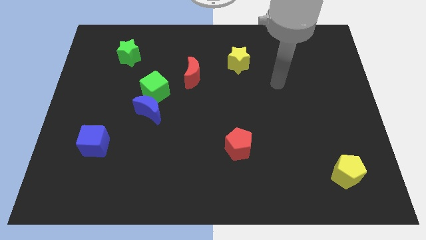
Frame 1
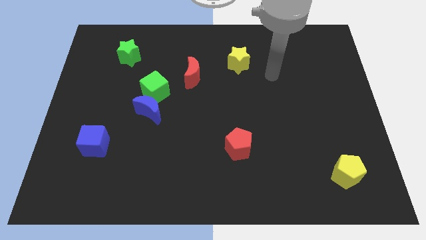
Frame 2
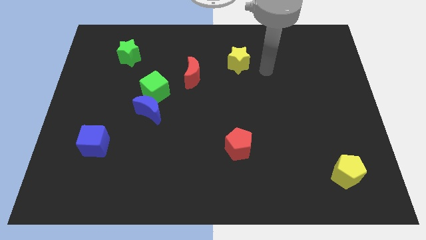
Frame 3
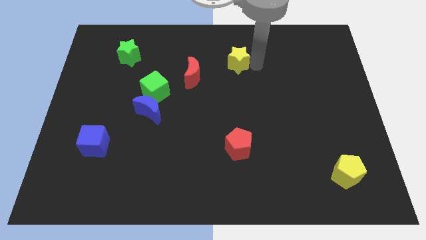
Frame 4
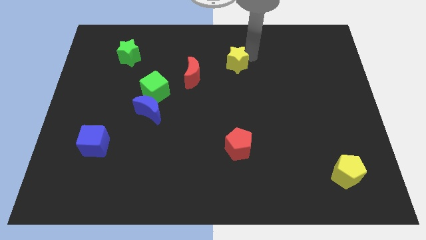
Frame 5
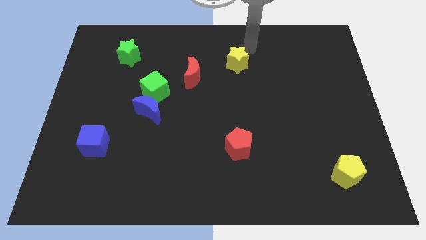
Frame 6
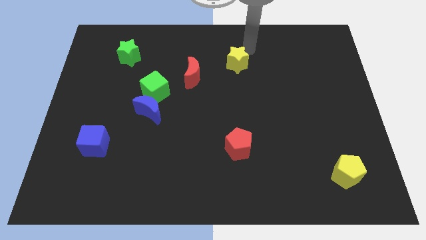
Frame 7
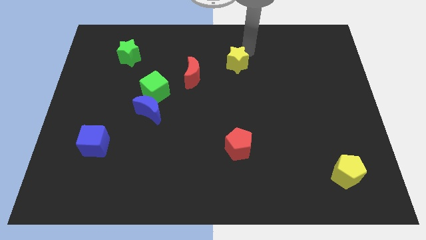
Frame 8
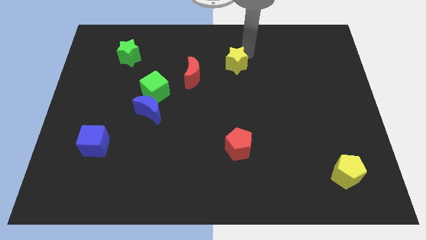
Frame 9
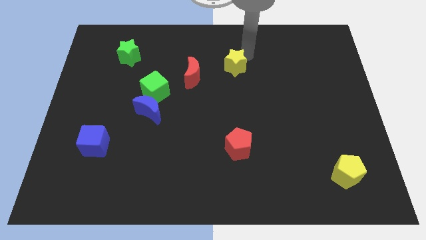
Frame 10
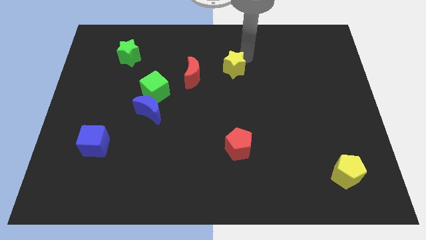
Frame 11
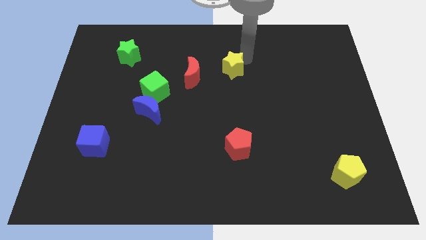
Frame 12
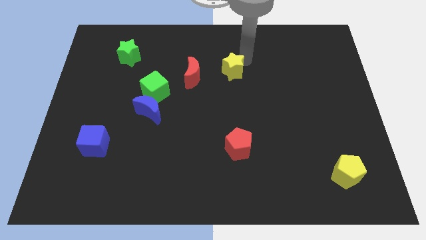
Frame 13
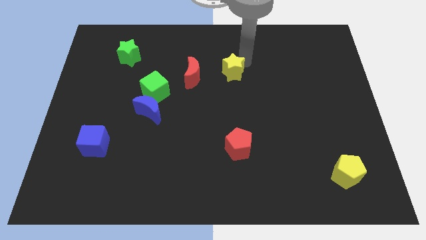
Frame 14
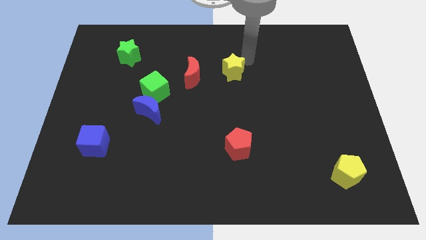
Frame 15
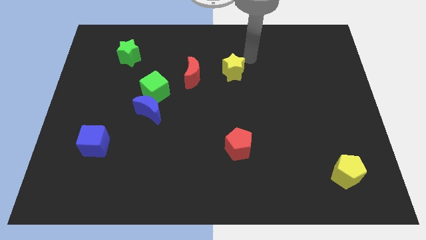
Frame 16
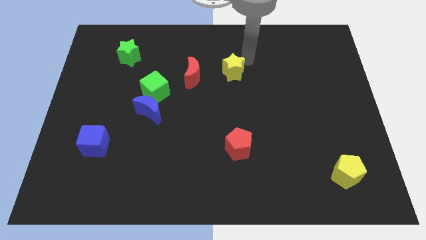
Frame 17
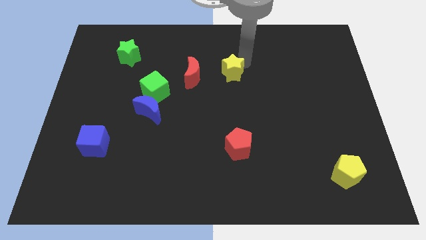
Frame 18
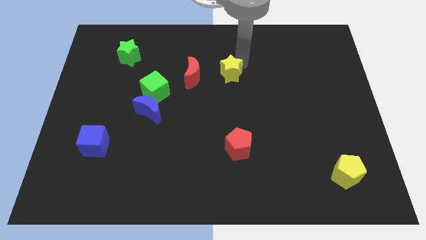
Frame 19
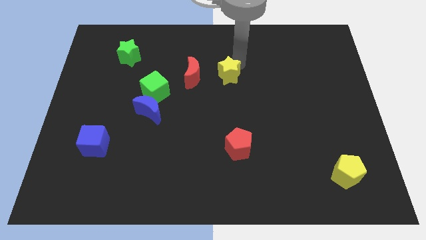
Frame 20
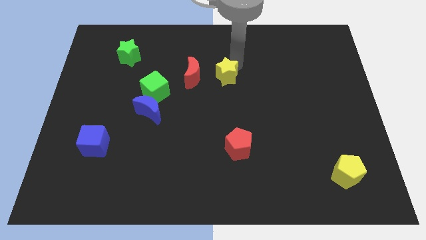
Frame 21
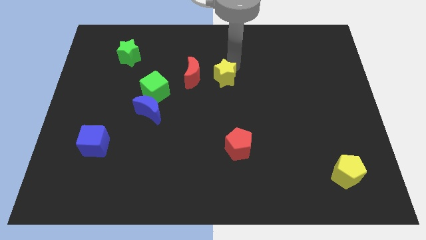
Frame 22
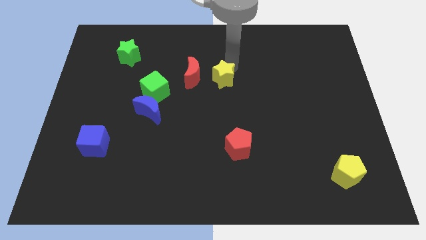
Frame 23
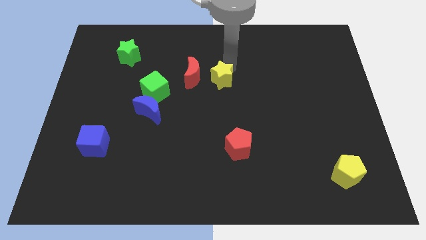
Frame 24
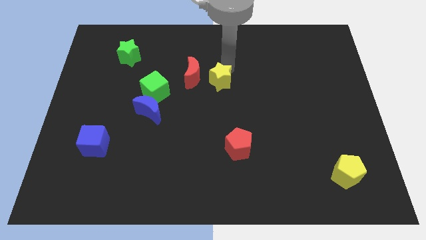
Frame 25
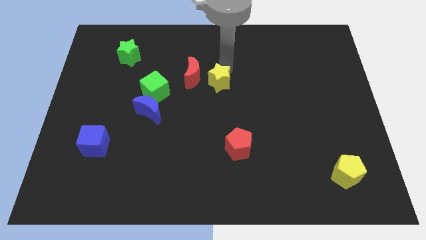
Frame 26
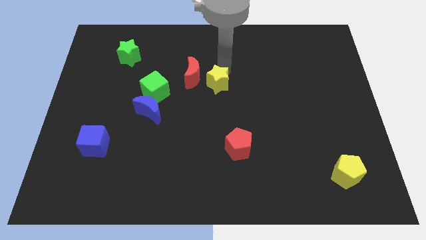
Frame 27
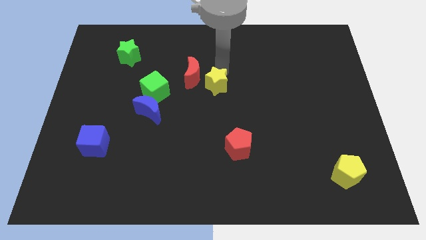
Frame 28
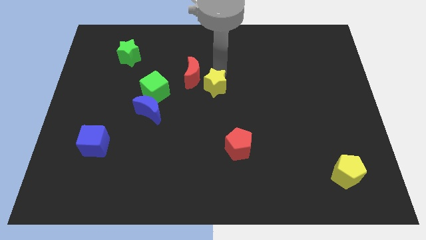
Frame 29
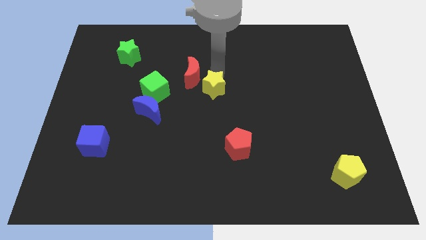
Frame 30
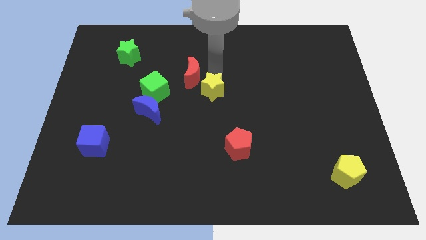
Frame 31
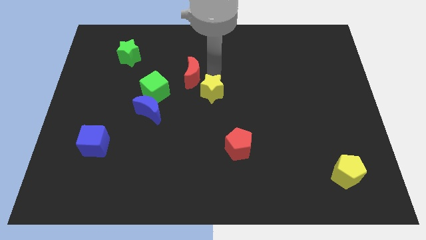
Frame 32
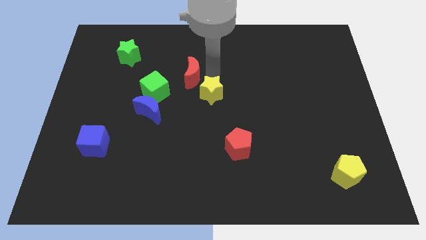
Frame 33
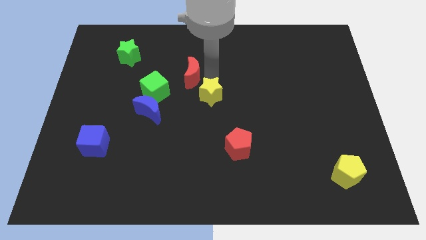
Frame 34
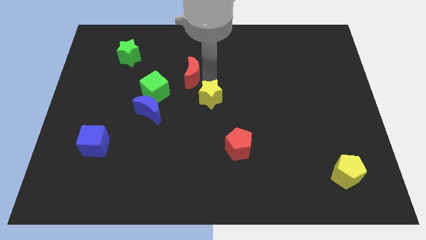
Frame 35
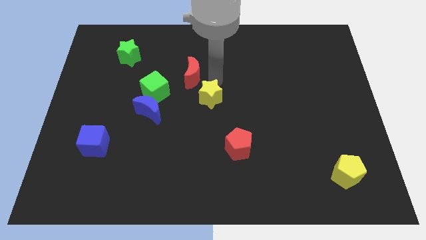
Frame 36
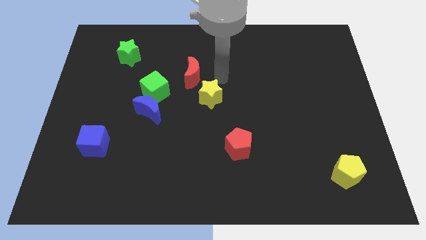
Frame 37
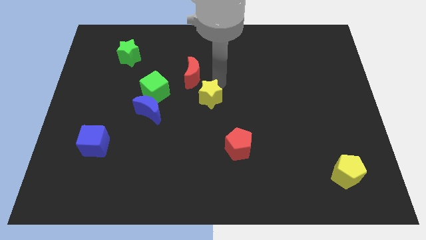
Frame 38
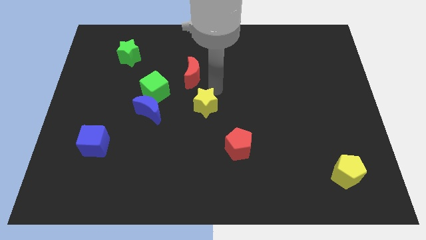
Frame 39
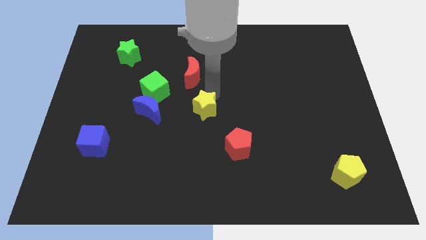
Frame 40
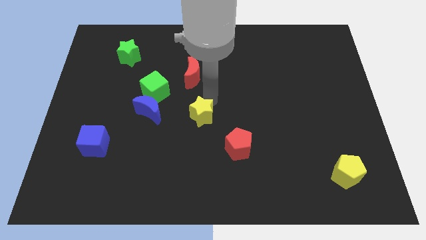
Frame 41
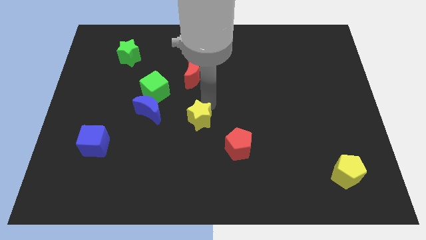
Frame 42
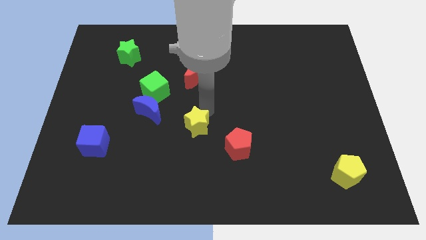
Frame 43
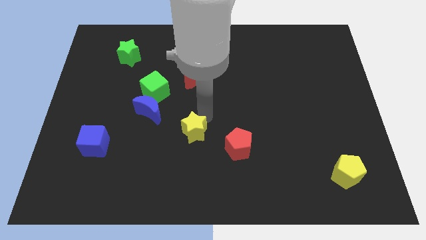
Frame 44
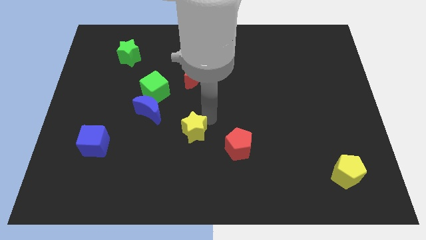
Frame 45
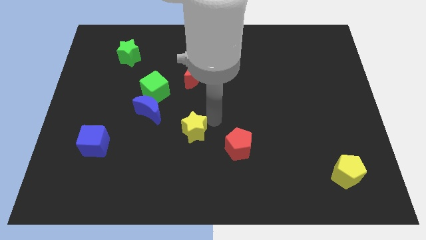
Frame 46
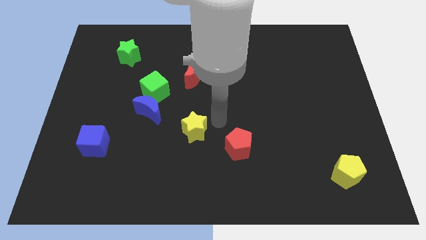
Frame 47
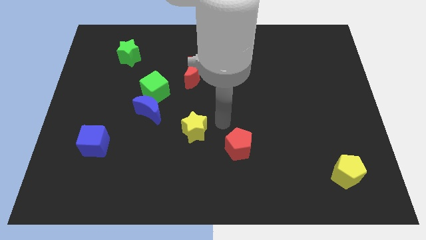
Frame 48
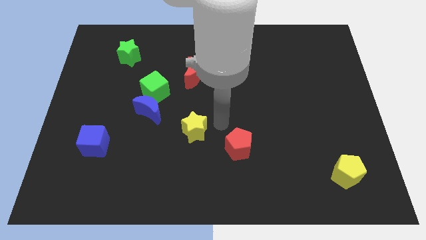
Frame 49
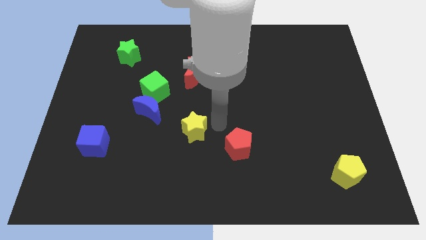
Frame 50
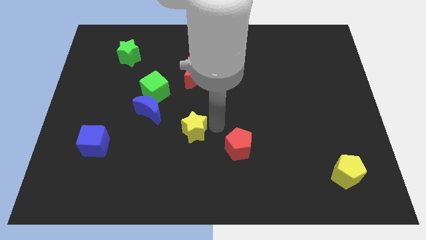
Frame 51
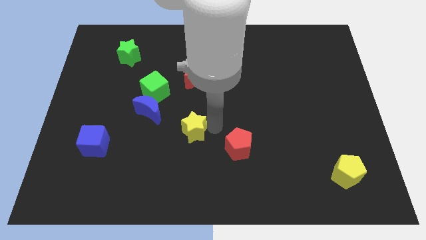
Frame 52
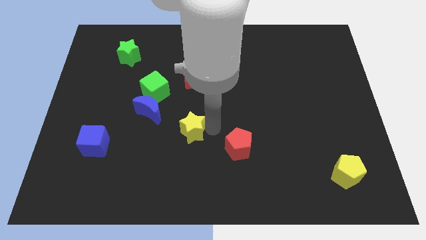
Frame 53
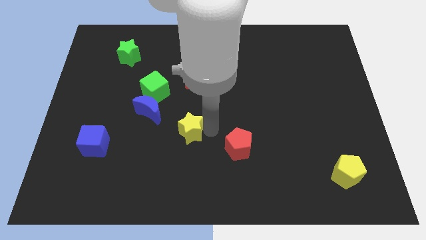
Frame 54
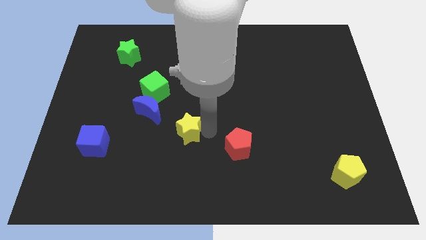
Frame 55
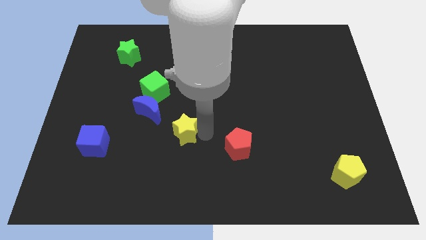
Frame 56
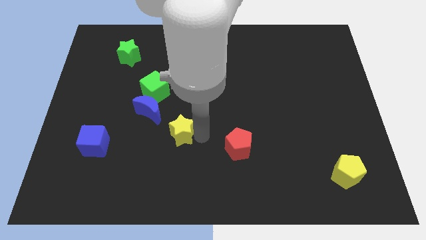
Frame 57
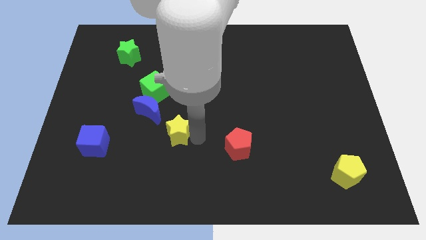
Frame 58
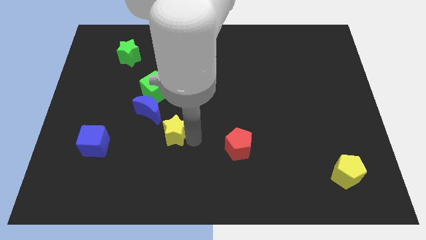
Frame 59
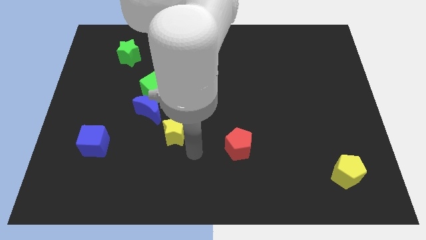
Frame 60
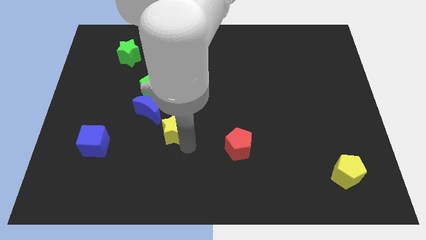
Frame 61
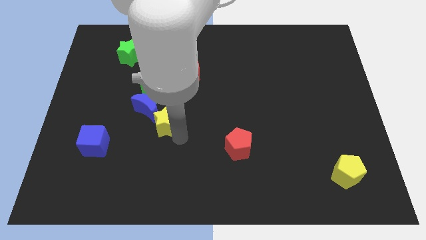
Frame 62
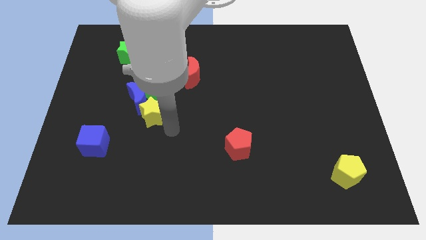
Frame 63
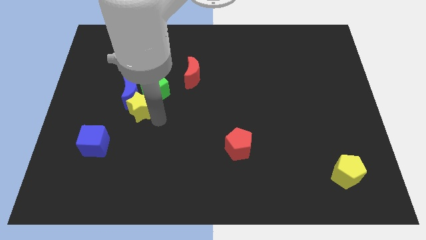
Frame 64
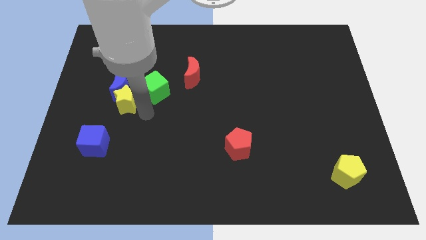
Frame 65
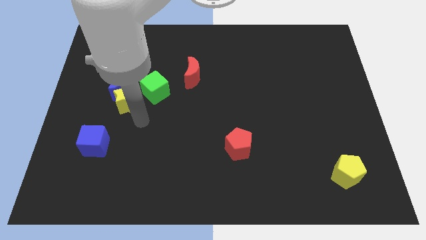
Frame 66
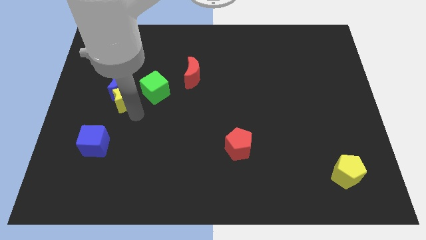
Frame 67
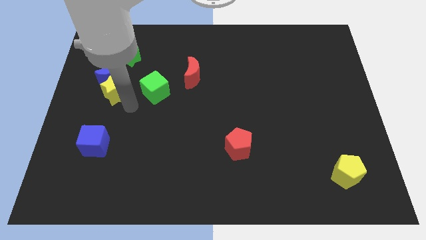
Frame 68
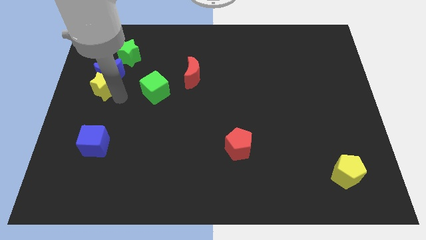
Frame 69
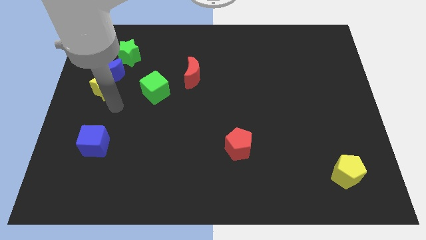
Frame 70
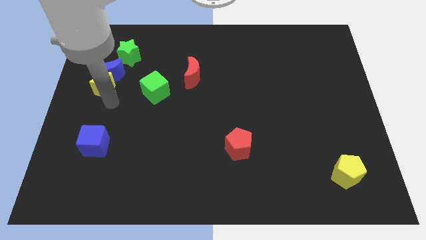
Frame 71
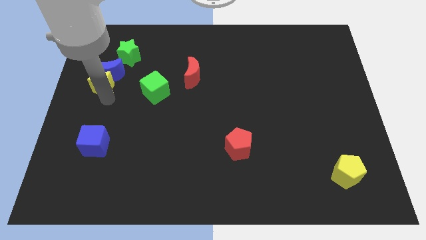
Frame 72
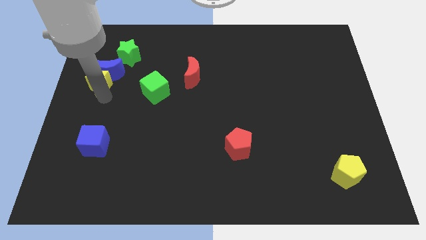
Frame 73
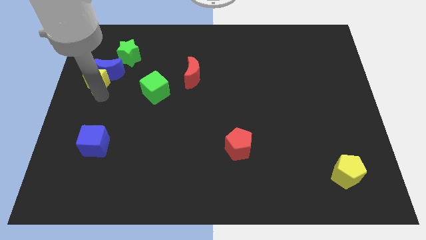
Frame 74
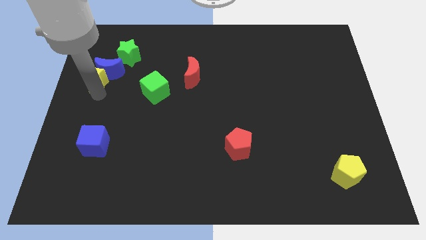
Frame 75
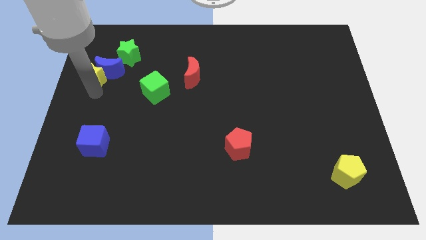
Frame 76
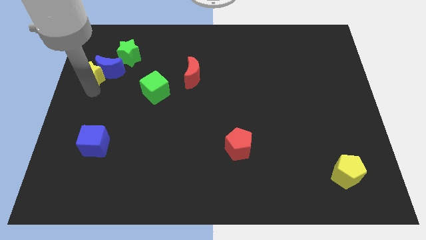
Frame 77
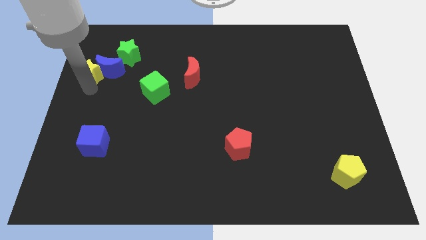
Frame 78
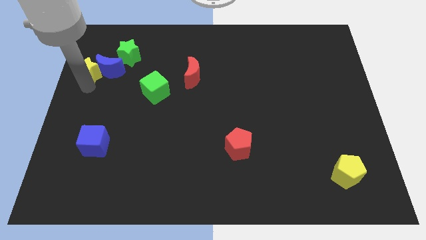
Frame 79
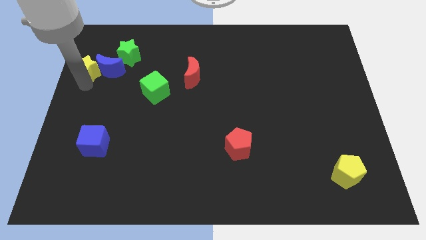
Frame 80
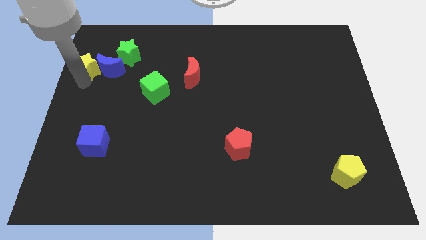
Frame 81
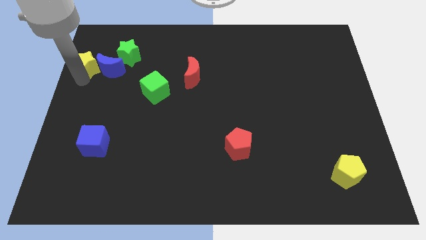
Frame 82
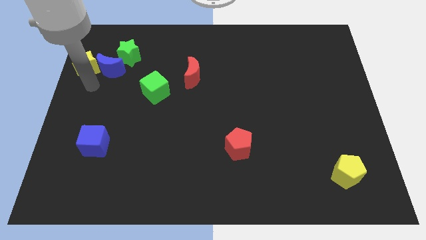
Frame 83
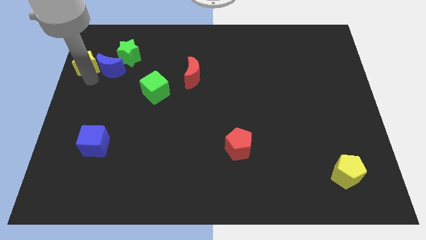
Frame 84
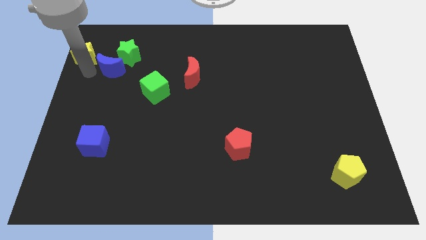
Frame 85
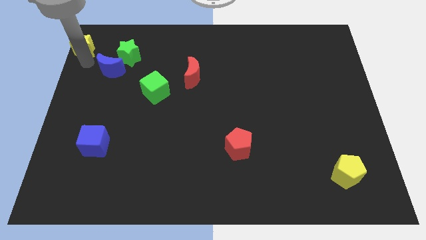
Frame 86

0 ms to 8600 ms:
push the yellow star to the top left corner
